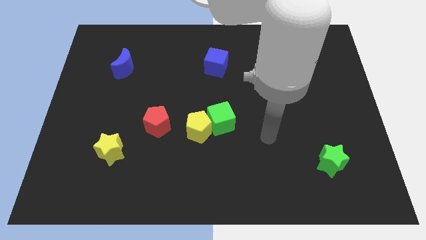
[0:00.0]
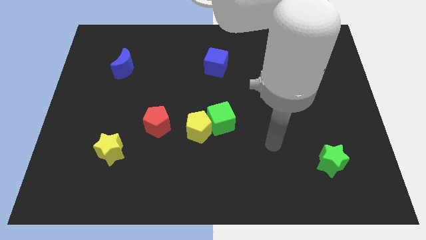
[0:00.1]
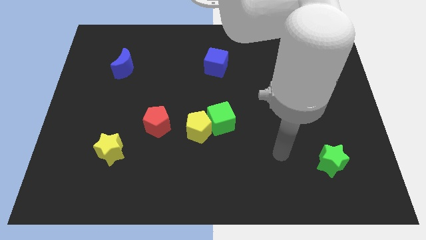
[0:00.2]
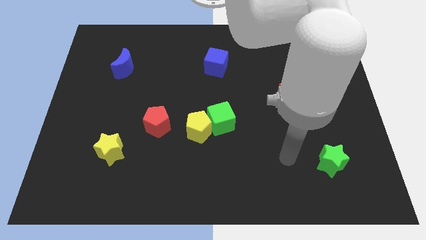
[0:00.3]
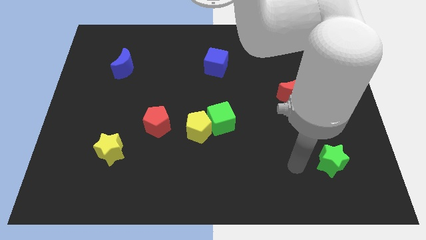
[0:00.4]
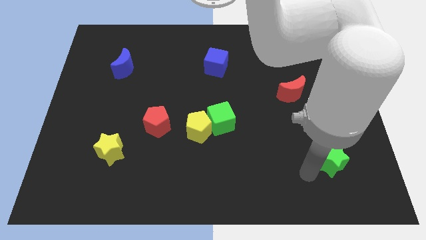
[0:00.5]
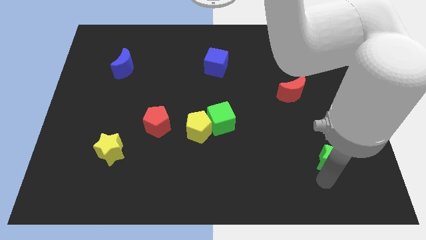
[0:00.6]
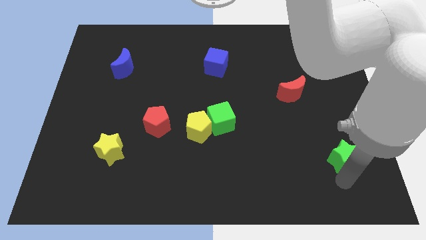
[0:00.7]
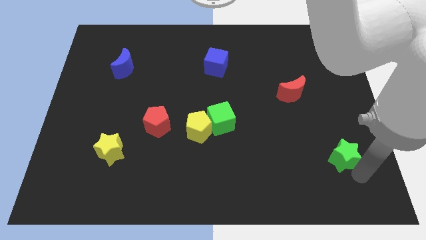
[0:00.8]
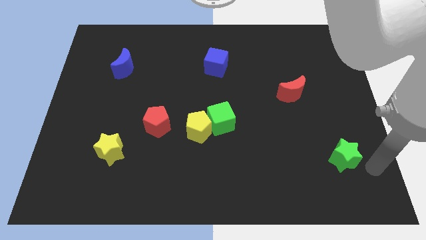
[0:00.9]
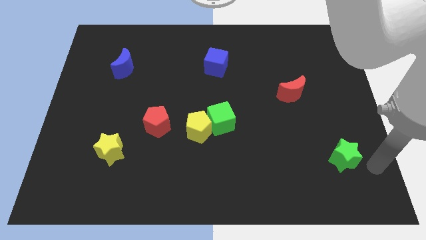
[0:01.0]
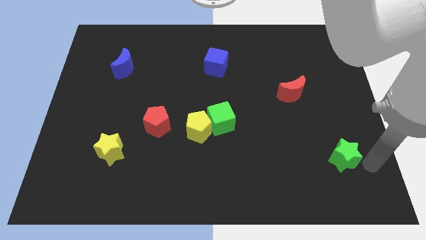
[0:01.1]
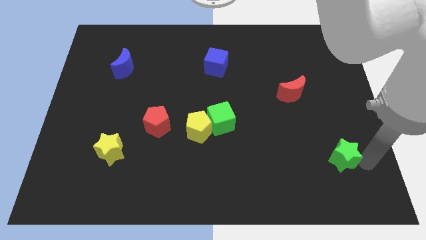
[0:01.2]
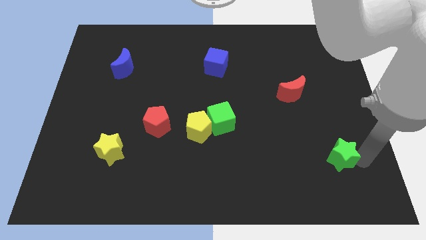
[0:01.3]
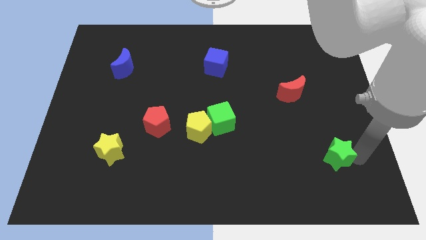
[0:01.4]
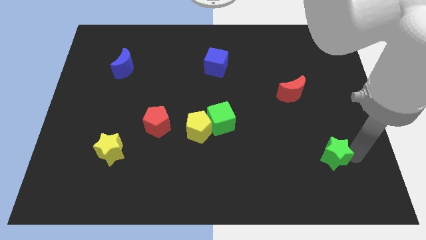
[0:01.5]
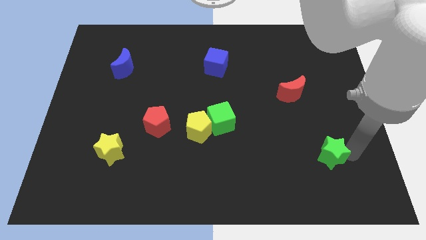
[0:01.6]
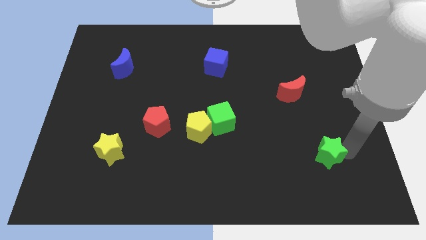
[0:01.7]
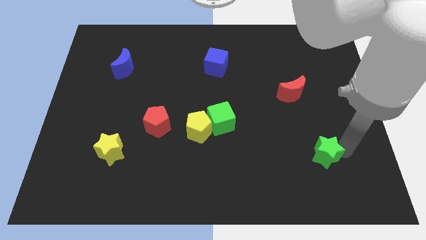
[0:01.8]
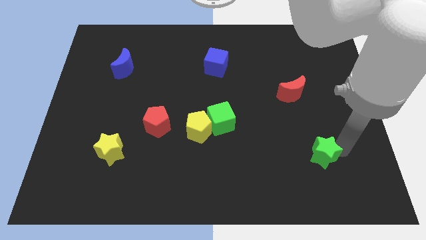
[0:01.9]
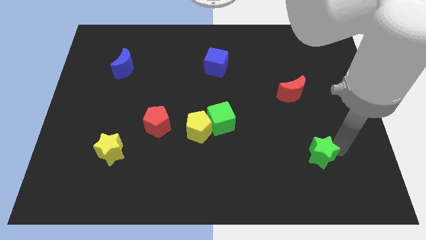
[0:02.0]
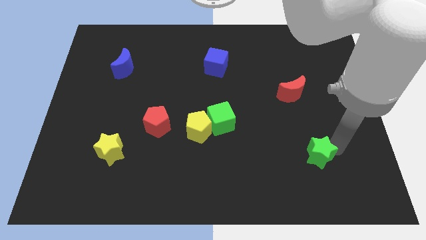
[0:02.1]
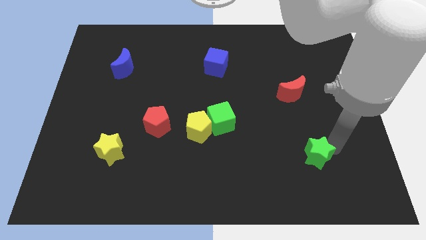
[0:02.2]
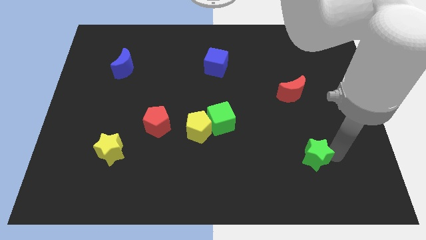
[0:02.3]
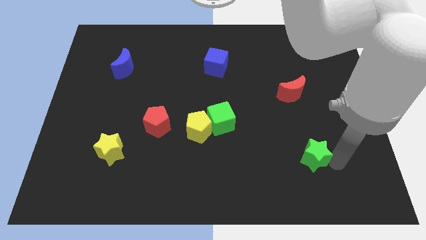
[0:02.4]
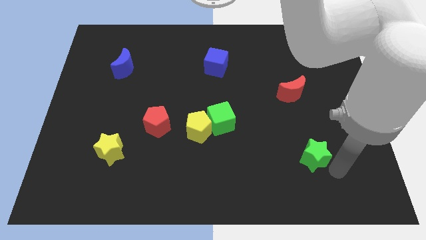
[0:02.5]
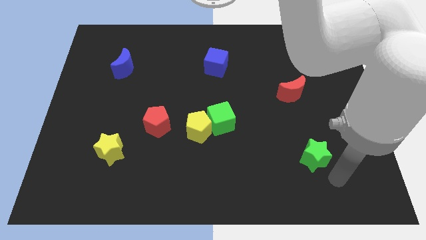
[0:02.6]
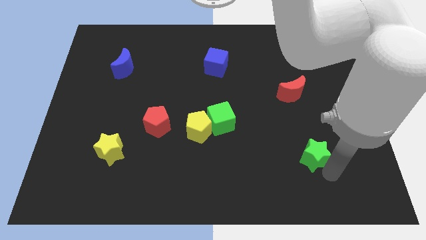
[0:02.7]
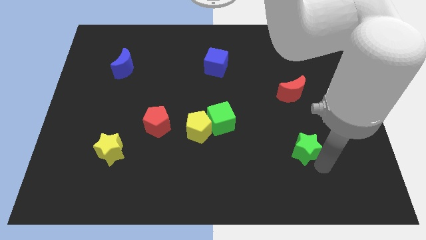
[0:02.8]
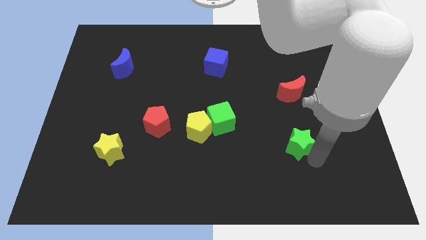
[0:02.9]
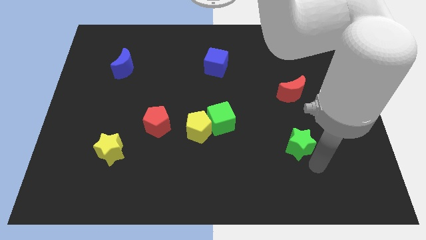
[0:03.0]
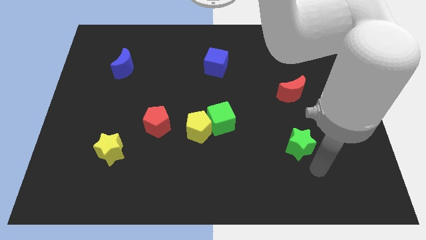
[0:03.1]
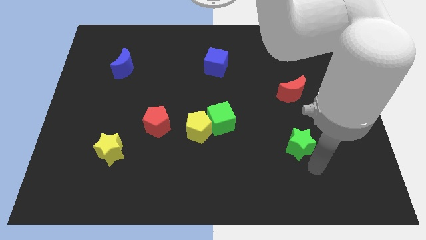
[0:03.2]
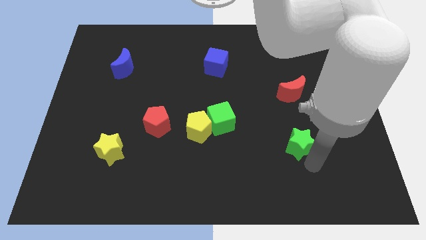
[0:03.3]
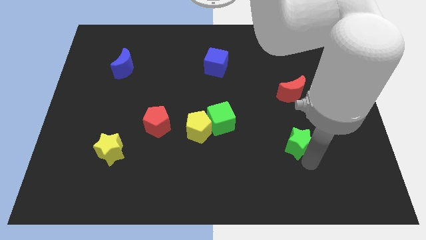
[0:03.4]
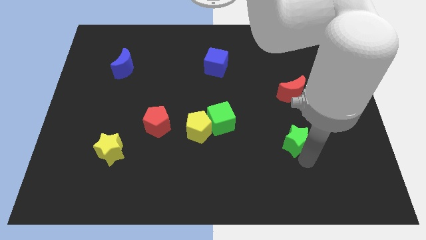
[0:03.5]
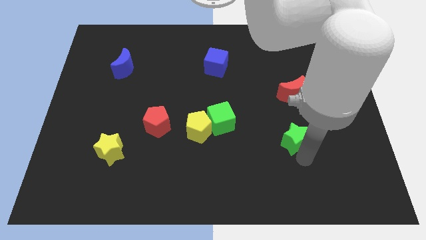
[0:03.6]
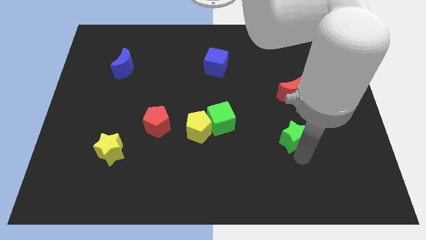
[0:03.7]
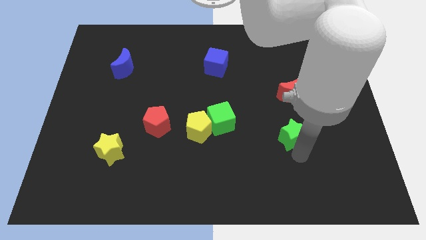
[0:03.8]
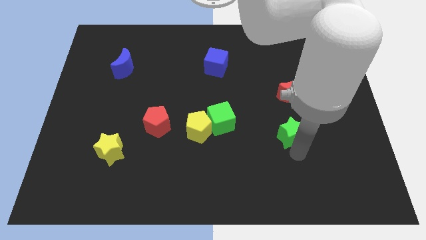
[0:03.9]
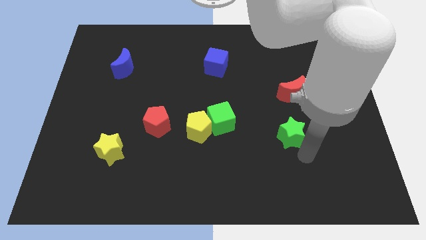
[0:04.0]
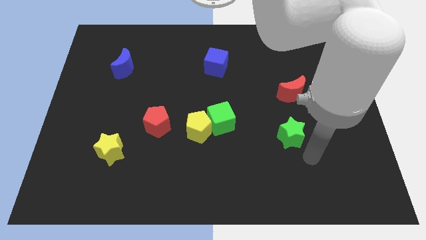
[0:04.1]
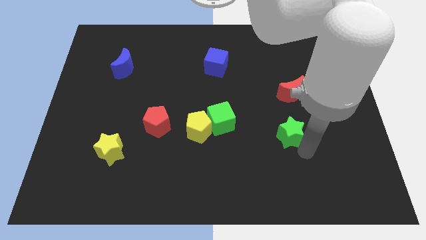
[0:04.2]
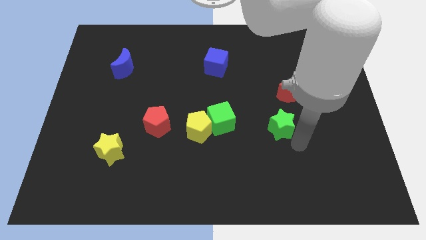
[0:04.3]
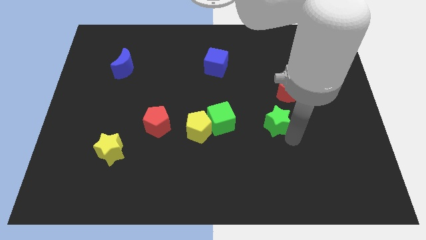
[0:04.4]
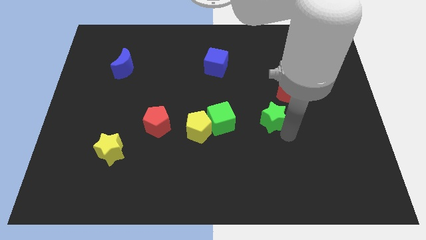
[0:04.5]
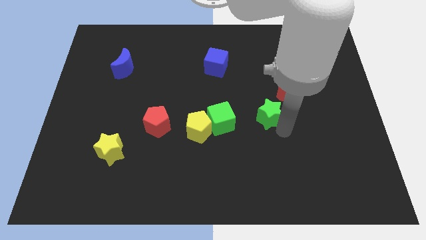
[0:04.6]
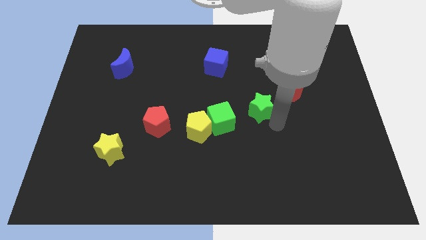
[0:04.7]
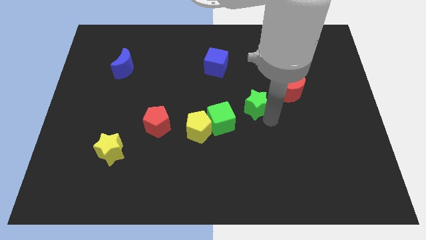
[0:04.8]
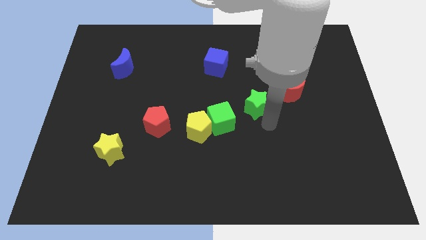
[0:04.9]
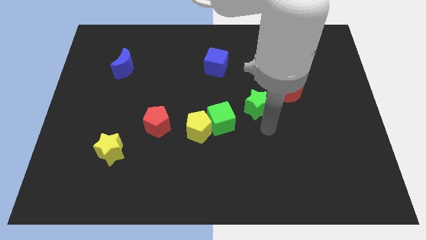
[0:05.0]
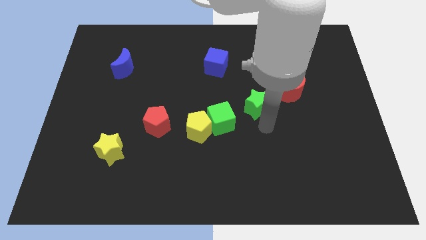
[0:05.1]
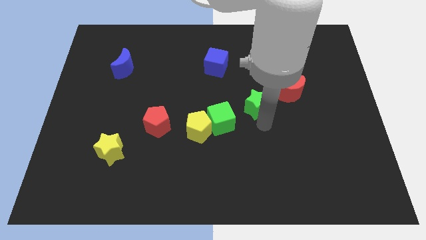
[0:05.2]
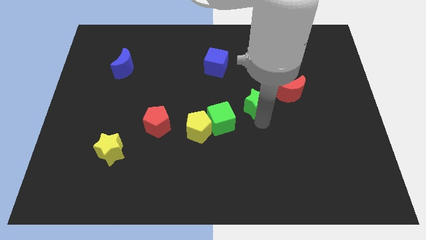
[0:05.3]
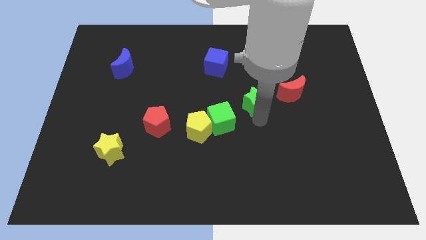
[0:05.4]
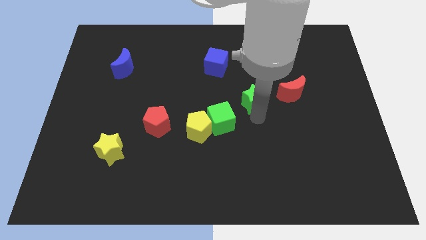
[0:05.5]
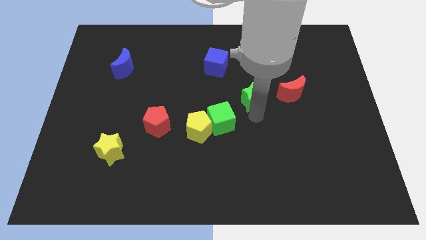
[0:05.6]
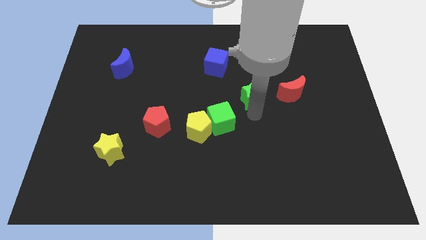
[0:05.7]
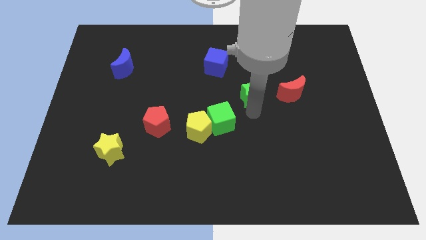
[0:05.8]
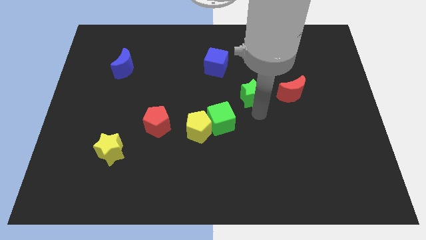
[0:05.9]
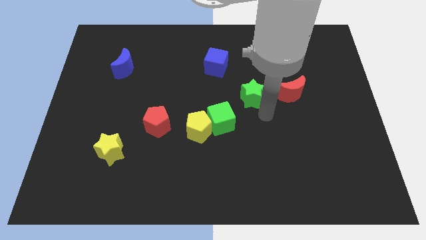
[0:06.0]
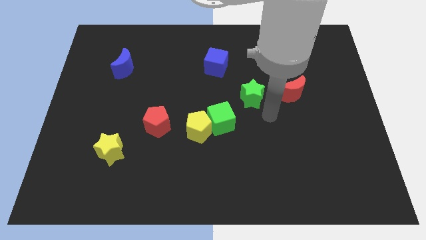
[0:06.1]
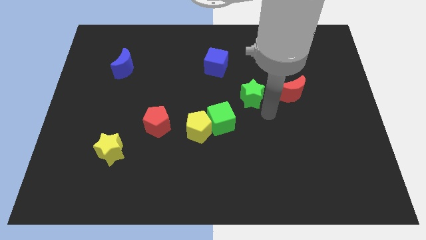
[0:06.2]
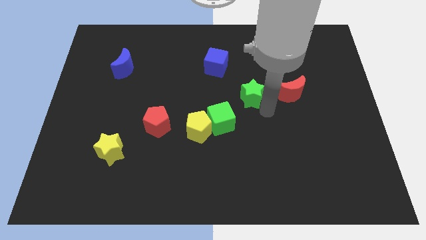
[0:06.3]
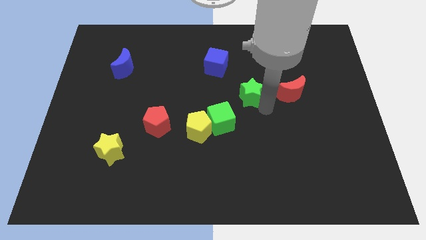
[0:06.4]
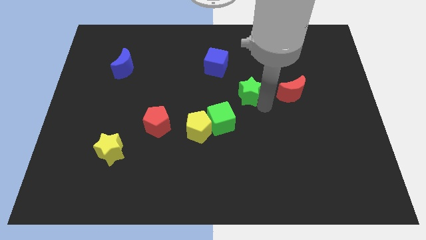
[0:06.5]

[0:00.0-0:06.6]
slide the green star to the bottom right side of the blue cube

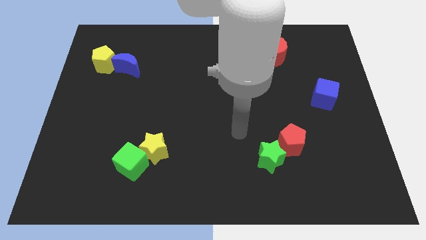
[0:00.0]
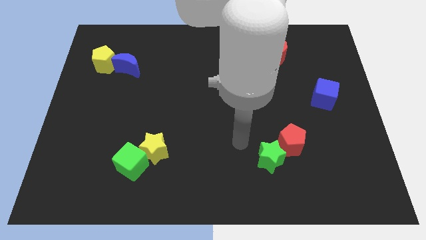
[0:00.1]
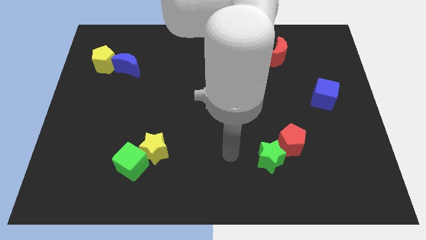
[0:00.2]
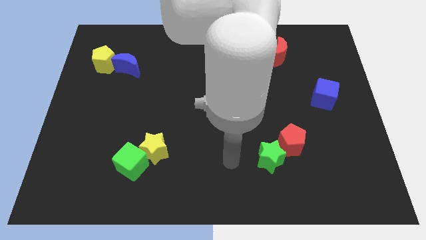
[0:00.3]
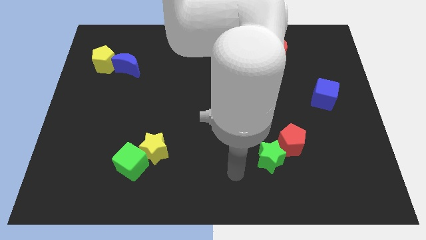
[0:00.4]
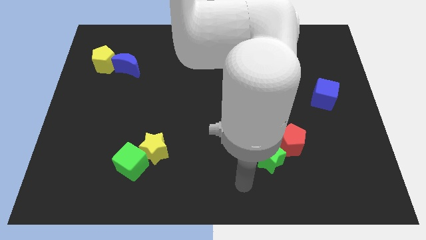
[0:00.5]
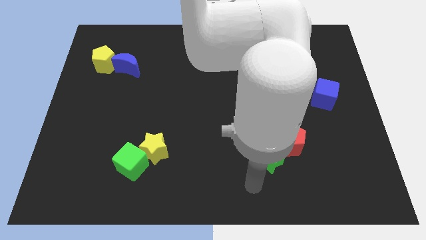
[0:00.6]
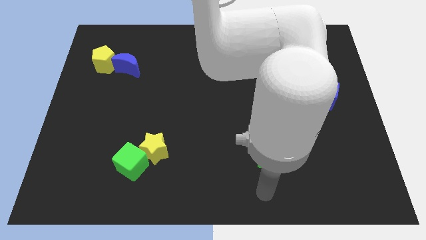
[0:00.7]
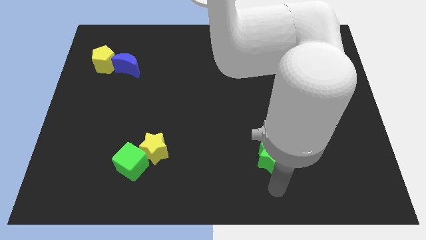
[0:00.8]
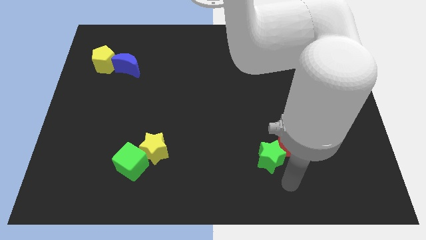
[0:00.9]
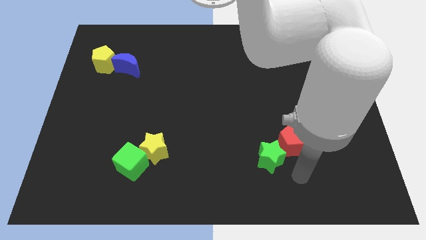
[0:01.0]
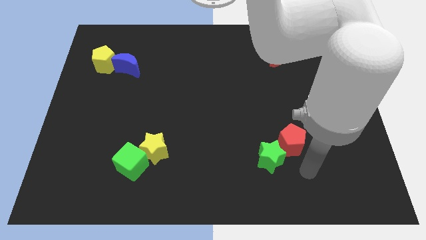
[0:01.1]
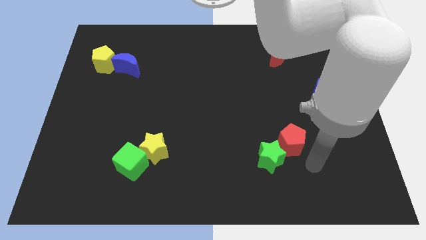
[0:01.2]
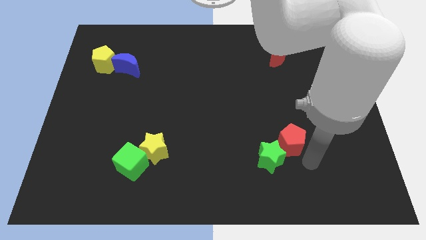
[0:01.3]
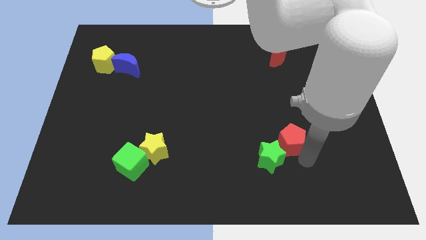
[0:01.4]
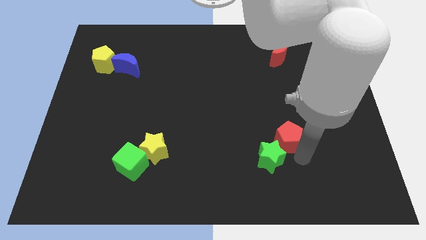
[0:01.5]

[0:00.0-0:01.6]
slide the red pentagon to the top side of the green star
